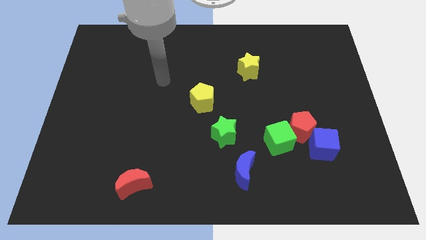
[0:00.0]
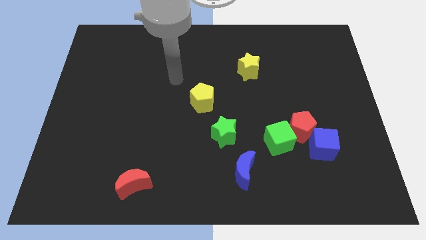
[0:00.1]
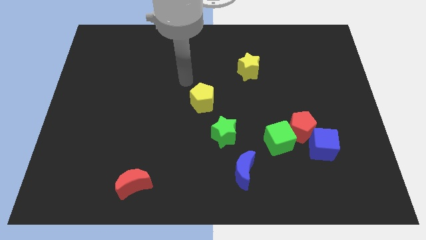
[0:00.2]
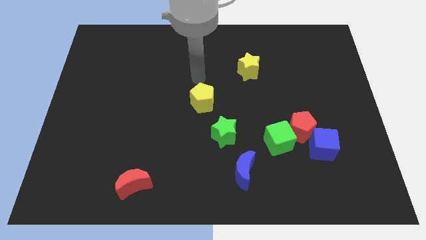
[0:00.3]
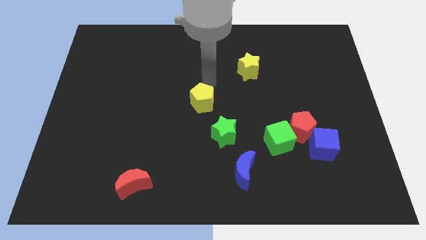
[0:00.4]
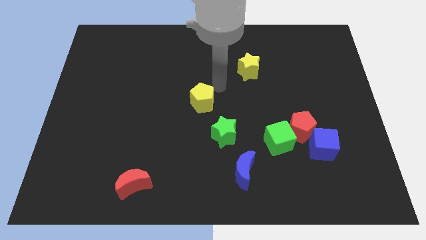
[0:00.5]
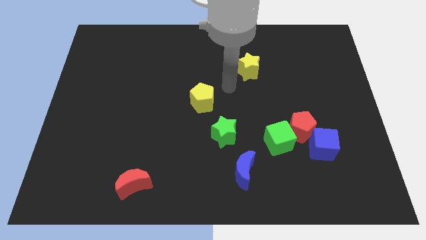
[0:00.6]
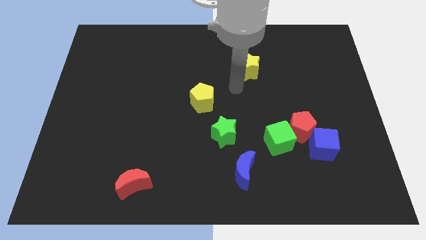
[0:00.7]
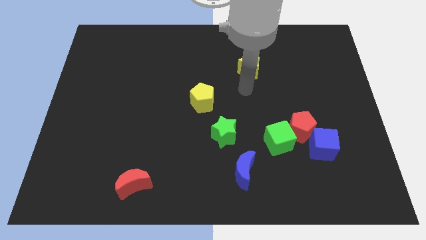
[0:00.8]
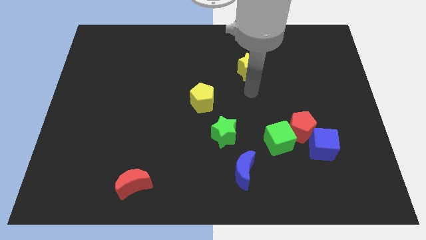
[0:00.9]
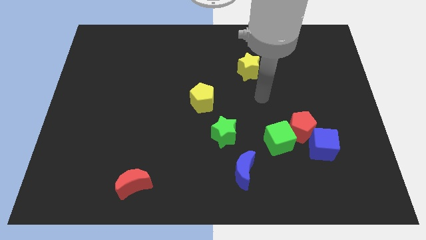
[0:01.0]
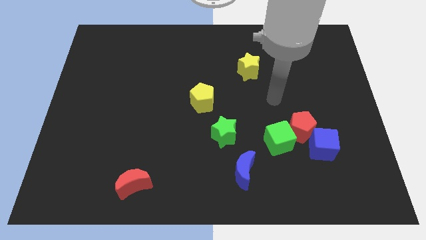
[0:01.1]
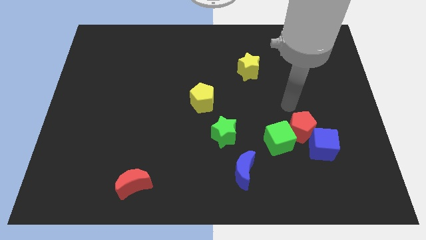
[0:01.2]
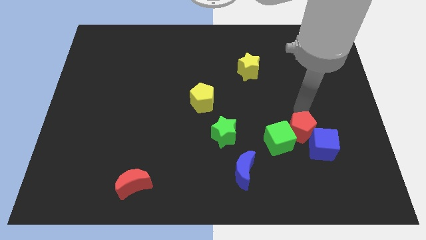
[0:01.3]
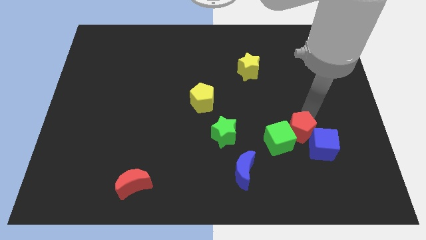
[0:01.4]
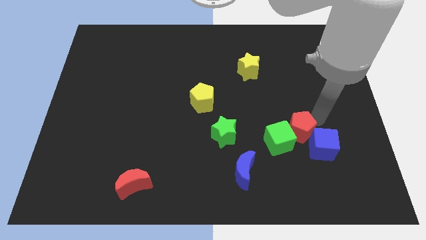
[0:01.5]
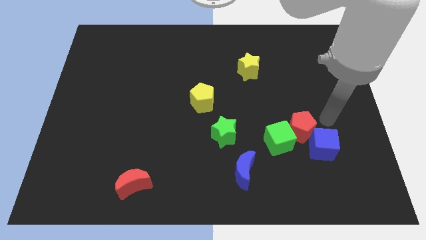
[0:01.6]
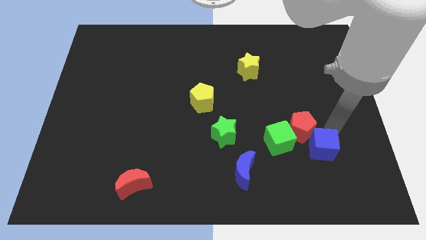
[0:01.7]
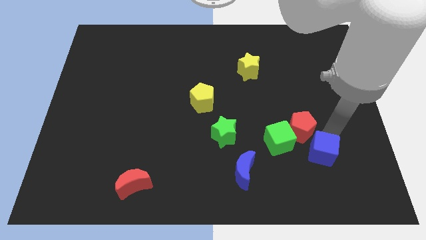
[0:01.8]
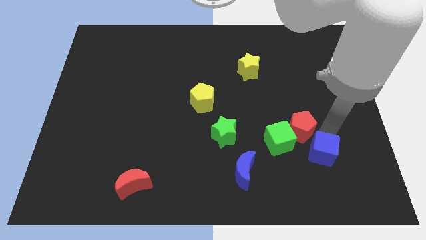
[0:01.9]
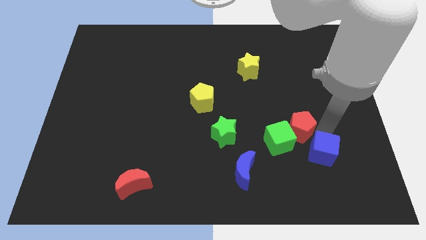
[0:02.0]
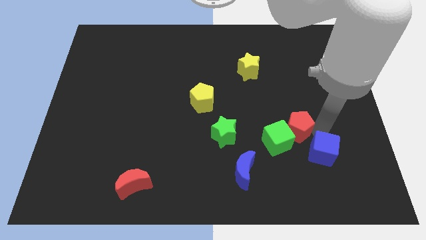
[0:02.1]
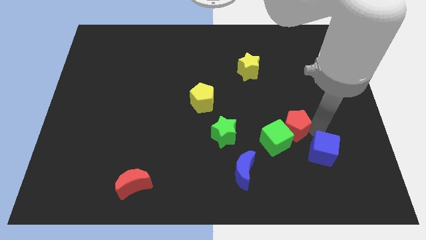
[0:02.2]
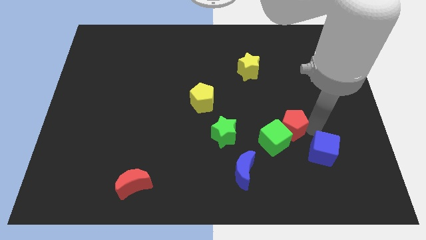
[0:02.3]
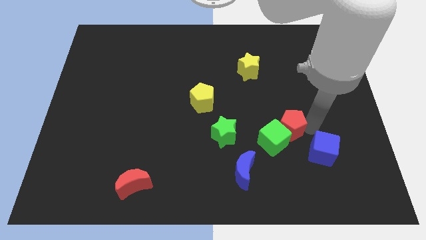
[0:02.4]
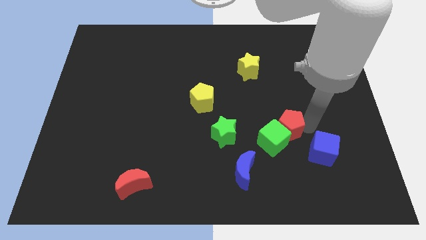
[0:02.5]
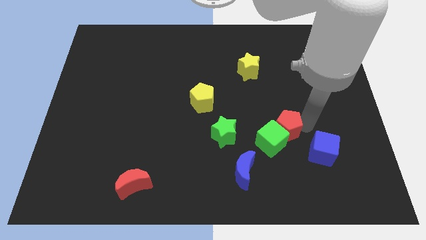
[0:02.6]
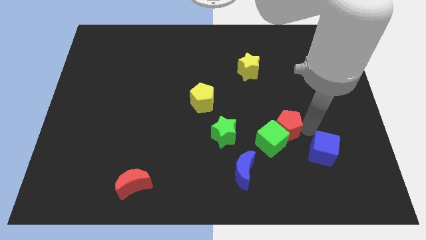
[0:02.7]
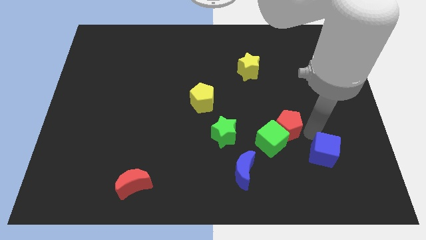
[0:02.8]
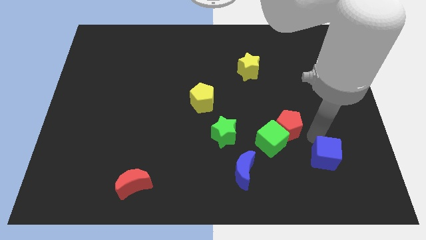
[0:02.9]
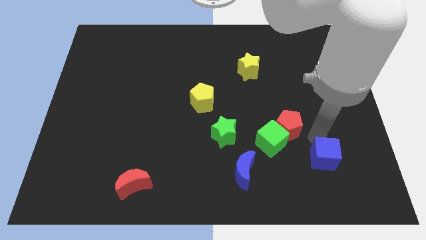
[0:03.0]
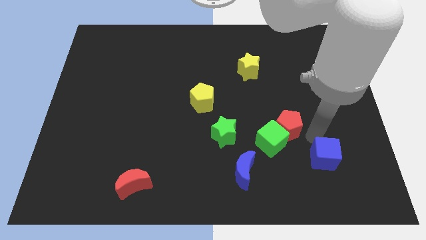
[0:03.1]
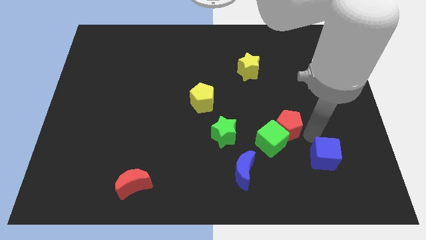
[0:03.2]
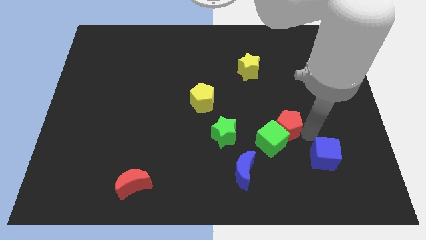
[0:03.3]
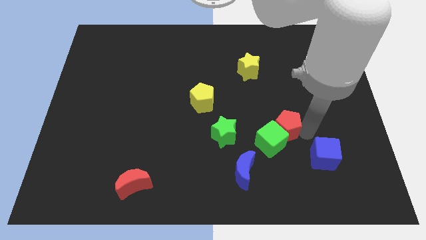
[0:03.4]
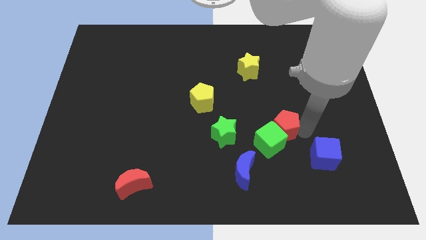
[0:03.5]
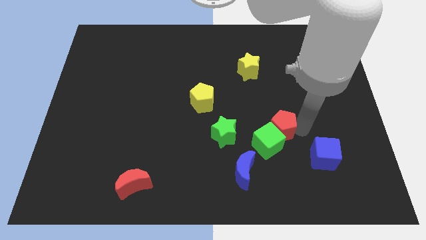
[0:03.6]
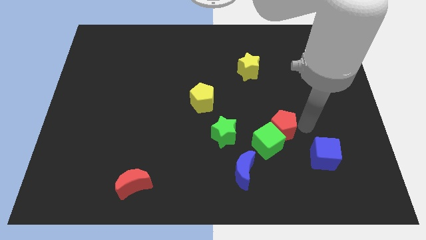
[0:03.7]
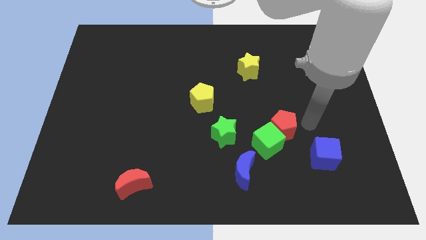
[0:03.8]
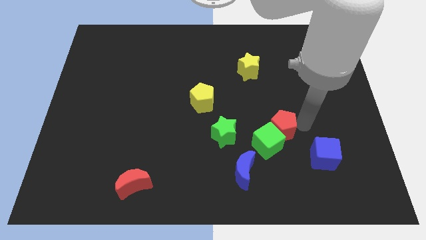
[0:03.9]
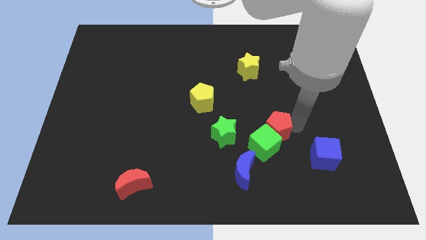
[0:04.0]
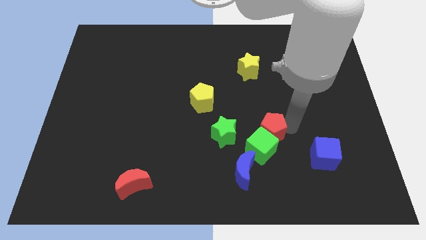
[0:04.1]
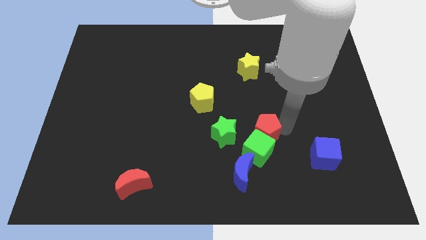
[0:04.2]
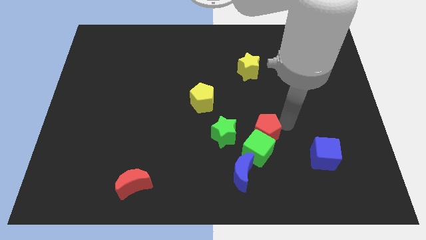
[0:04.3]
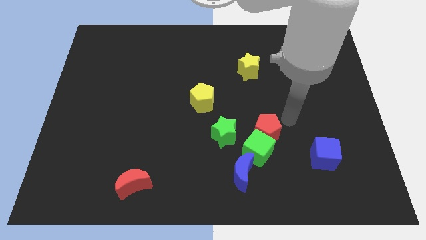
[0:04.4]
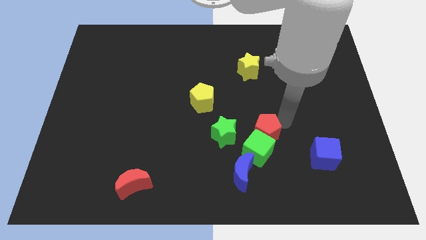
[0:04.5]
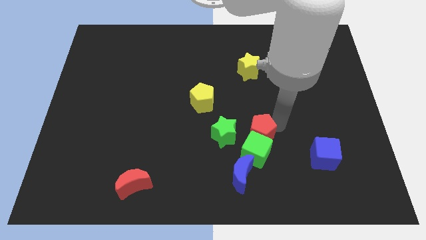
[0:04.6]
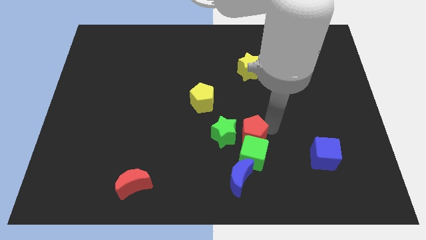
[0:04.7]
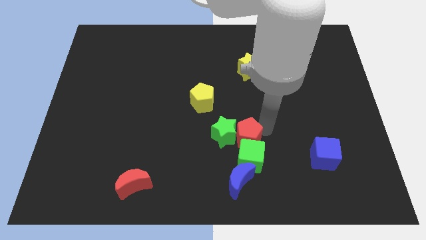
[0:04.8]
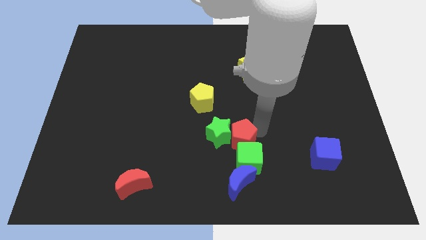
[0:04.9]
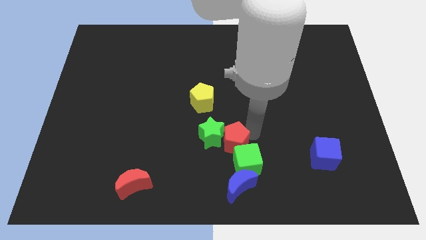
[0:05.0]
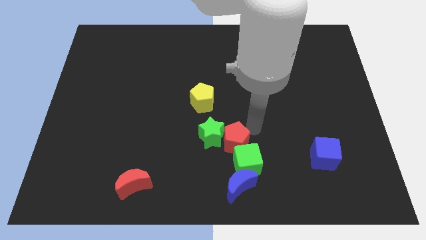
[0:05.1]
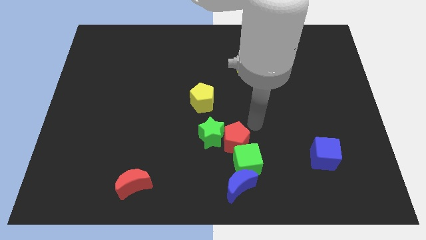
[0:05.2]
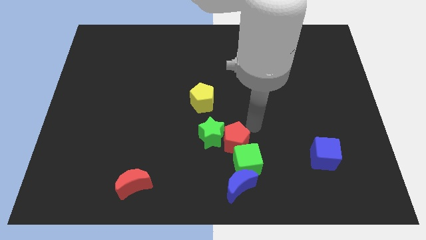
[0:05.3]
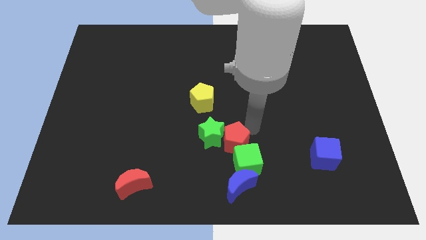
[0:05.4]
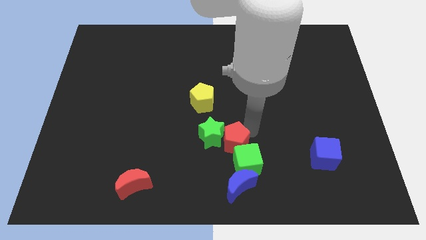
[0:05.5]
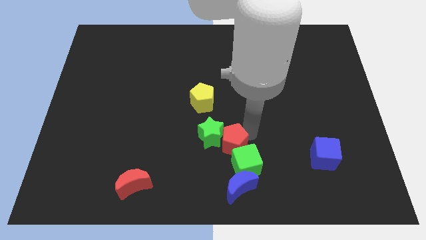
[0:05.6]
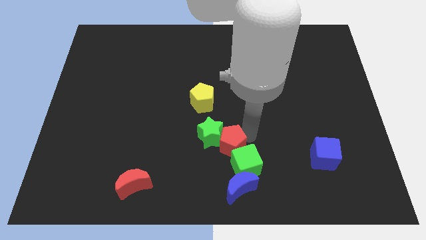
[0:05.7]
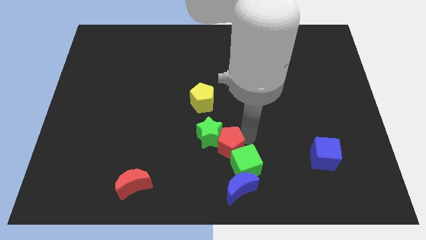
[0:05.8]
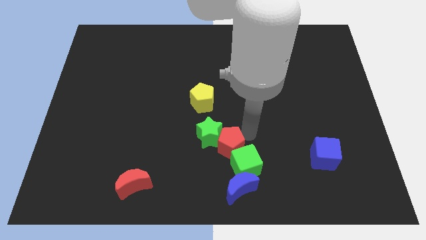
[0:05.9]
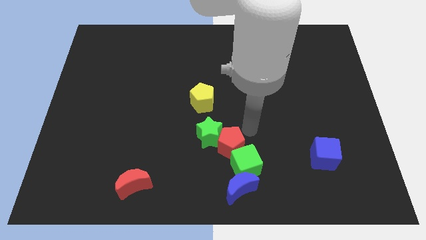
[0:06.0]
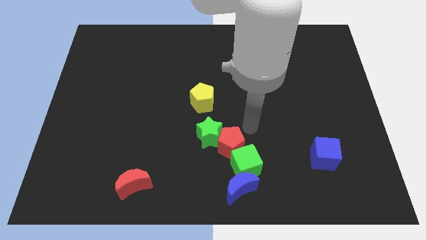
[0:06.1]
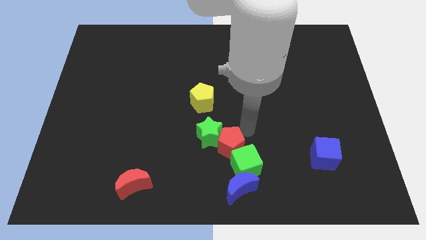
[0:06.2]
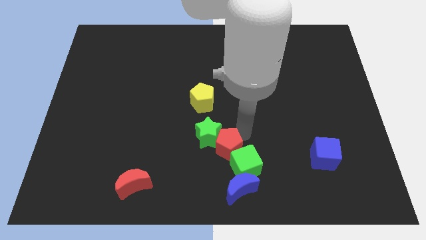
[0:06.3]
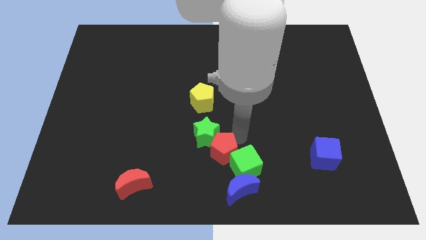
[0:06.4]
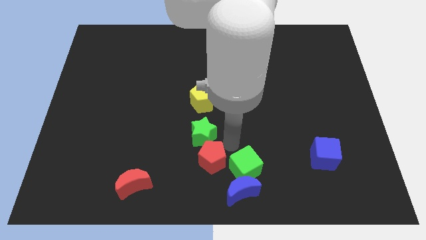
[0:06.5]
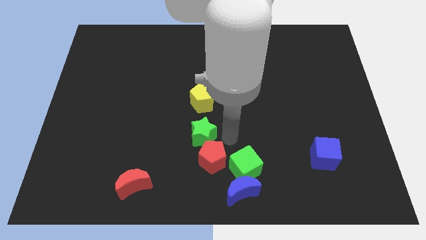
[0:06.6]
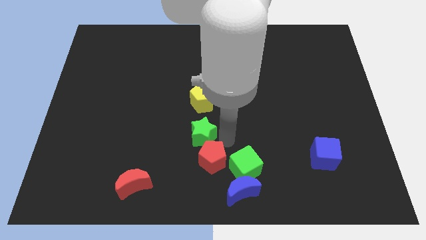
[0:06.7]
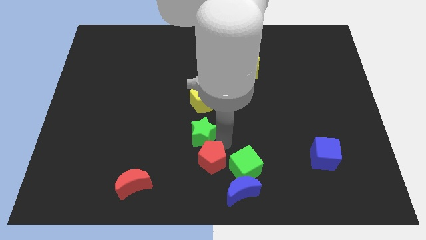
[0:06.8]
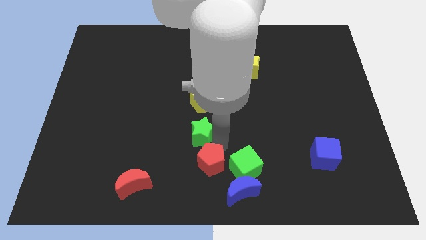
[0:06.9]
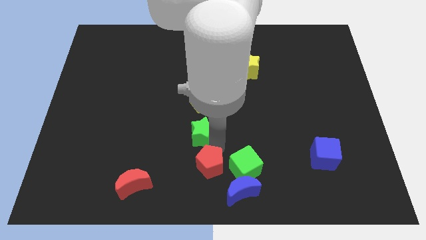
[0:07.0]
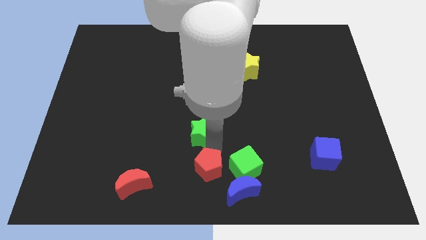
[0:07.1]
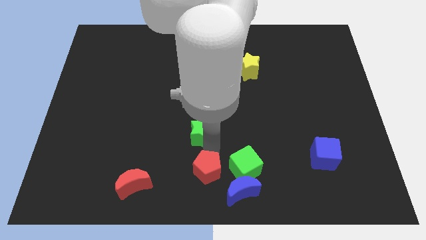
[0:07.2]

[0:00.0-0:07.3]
put the red pentagon to the left side of the blue moon
